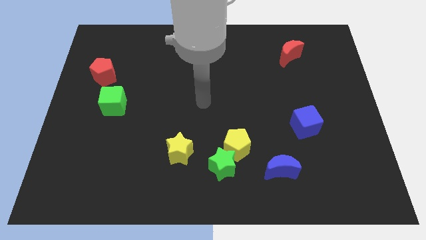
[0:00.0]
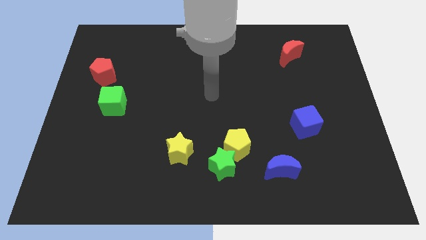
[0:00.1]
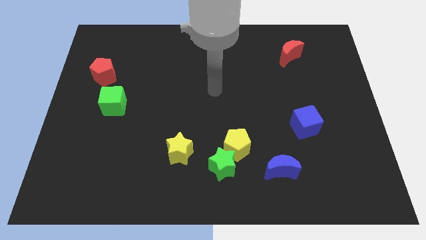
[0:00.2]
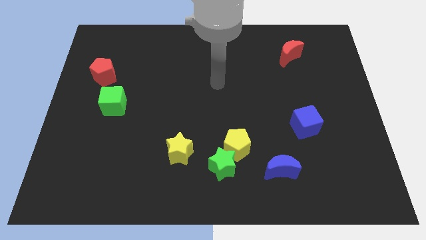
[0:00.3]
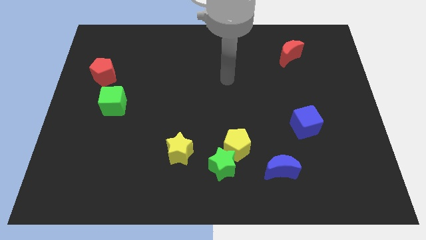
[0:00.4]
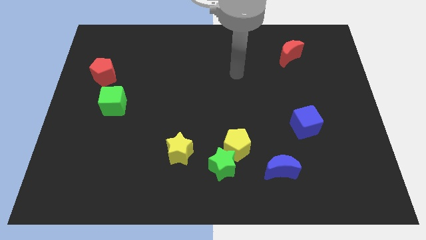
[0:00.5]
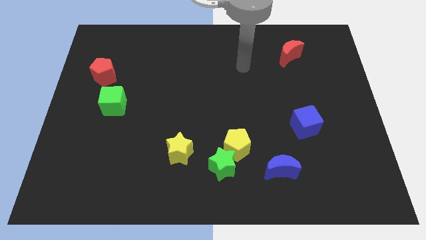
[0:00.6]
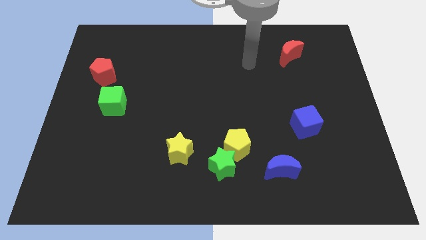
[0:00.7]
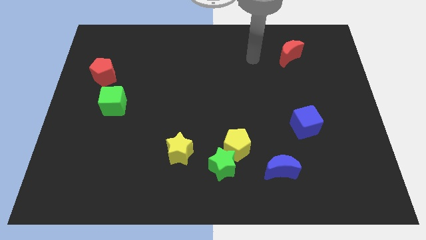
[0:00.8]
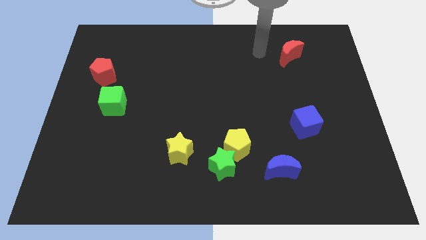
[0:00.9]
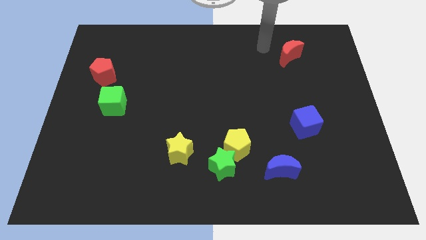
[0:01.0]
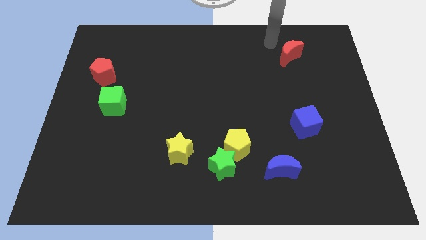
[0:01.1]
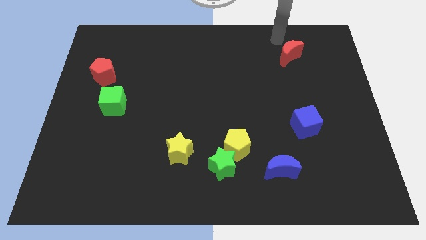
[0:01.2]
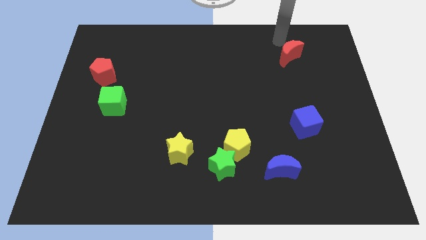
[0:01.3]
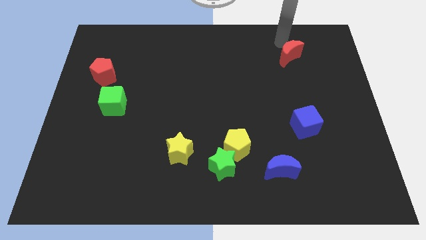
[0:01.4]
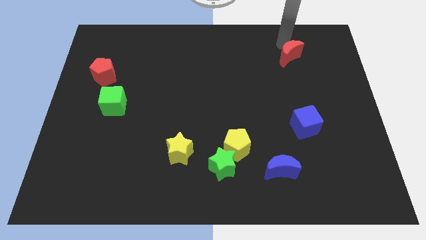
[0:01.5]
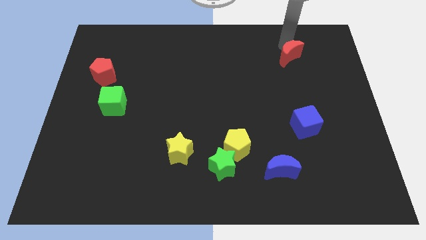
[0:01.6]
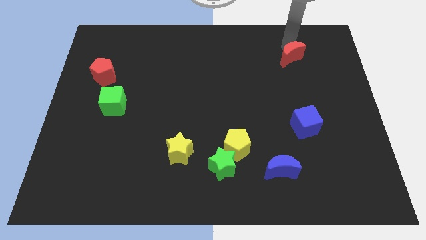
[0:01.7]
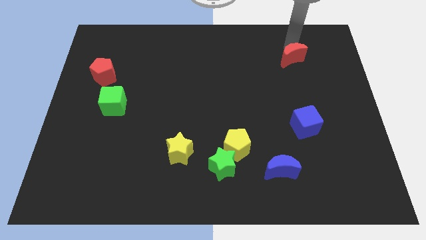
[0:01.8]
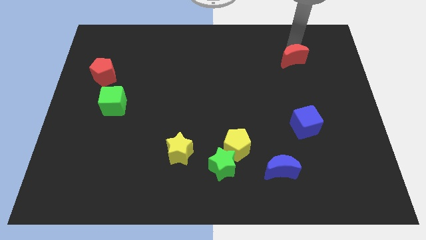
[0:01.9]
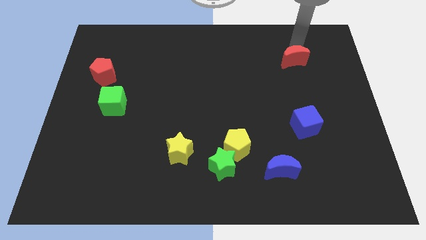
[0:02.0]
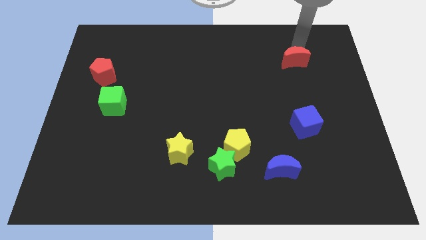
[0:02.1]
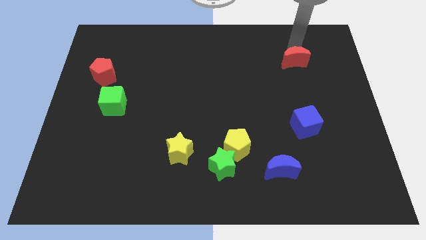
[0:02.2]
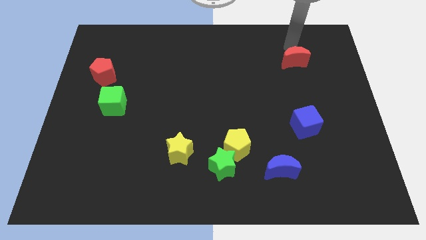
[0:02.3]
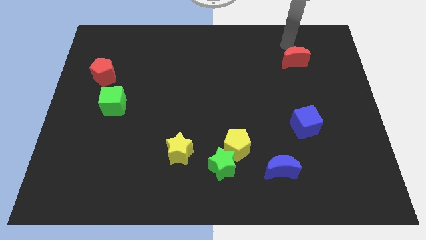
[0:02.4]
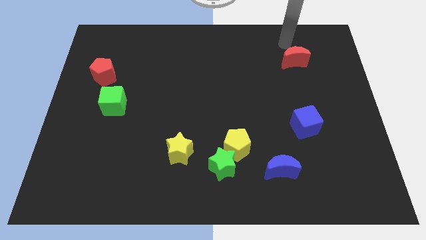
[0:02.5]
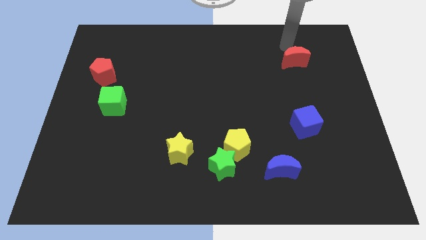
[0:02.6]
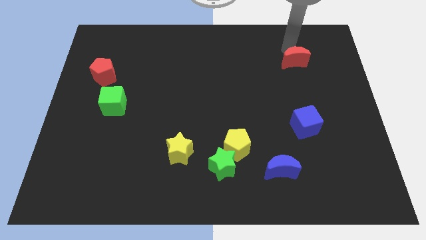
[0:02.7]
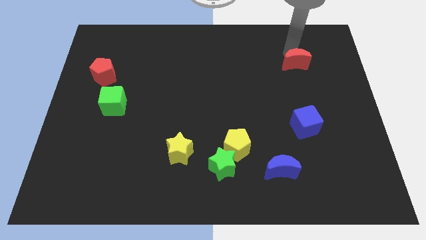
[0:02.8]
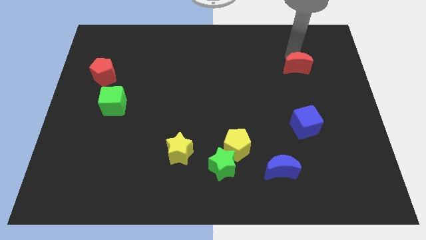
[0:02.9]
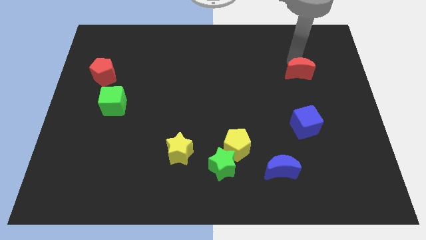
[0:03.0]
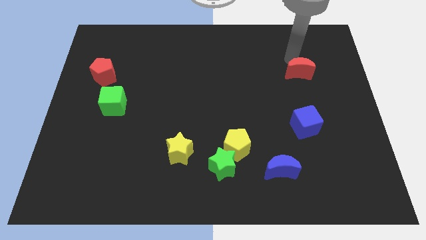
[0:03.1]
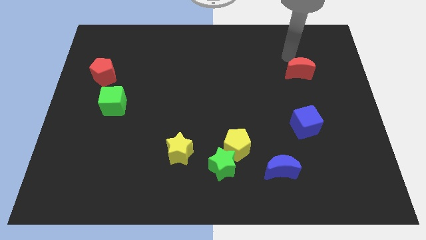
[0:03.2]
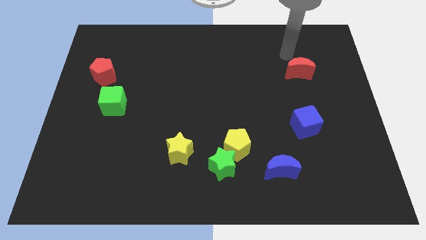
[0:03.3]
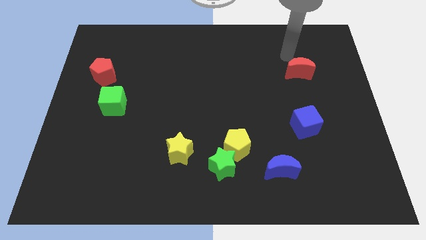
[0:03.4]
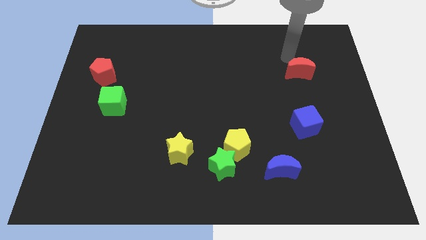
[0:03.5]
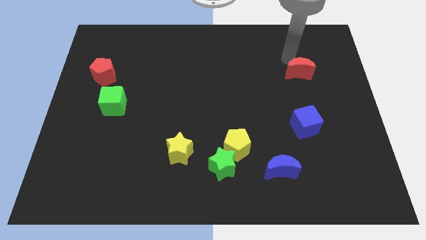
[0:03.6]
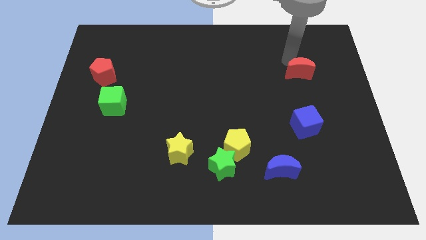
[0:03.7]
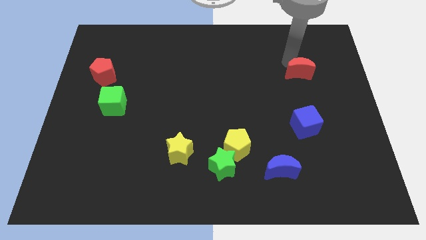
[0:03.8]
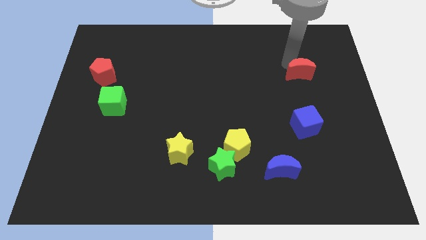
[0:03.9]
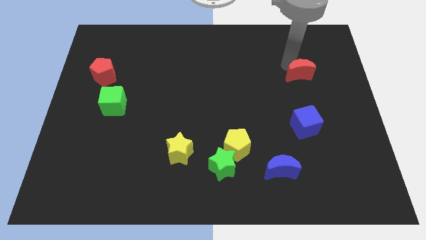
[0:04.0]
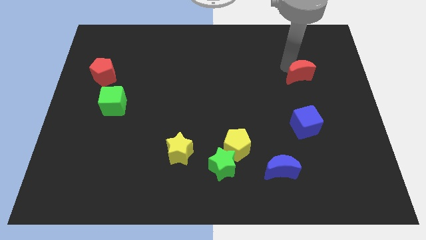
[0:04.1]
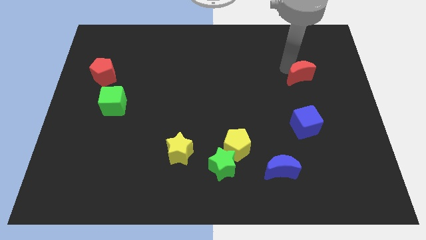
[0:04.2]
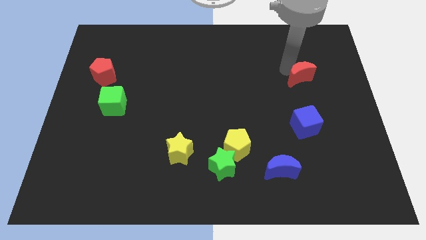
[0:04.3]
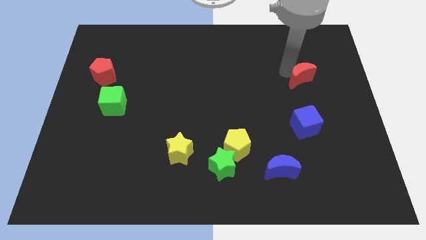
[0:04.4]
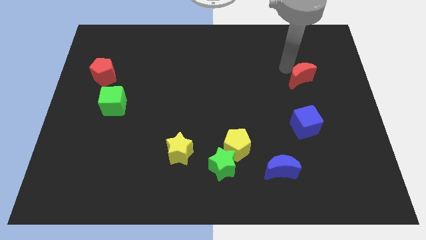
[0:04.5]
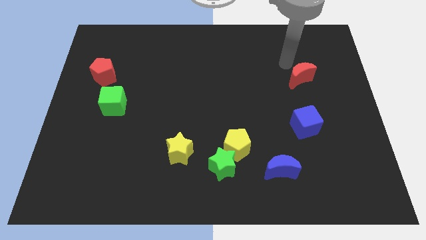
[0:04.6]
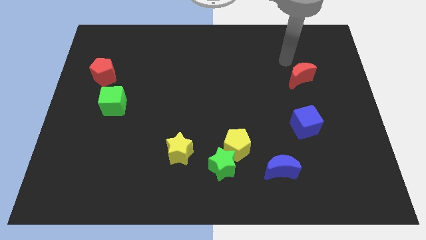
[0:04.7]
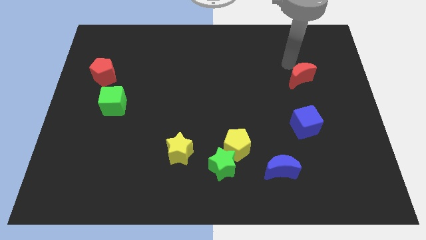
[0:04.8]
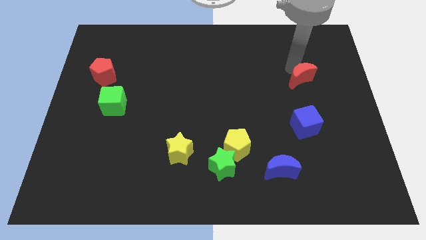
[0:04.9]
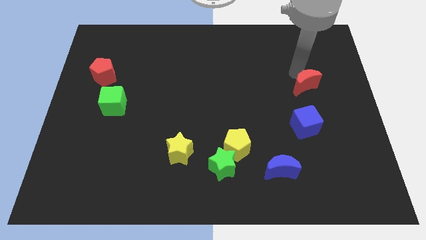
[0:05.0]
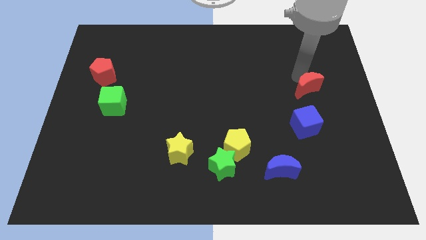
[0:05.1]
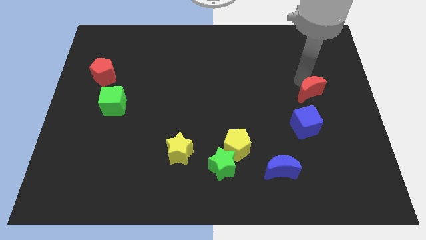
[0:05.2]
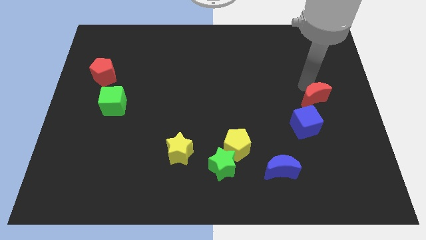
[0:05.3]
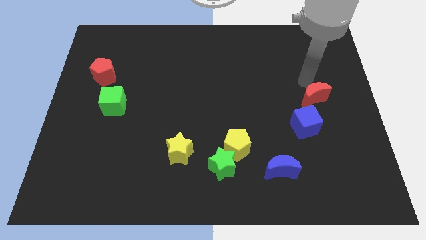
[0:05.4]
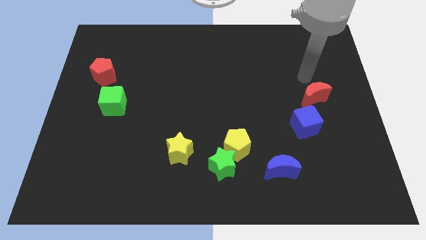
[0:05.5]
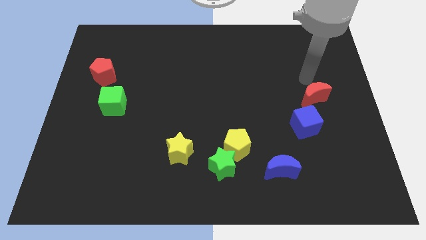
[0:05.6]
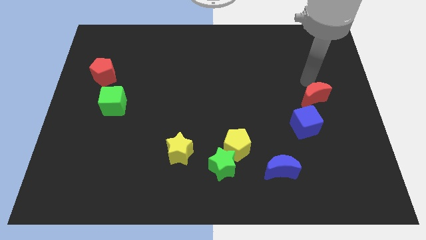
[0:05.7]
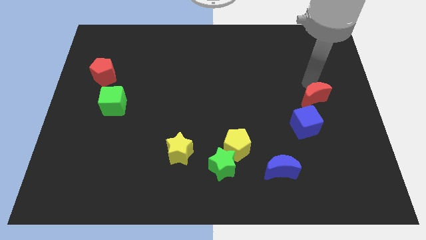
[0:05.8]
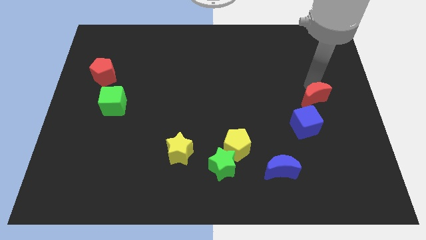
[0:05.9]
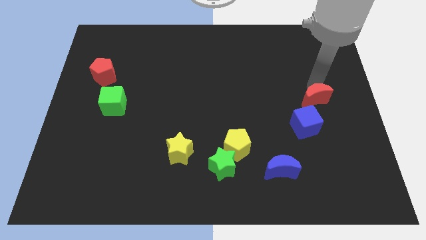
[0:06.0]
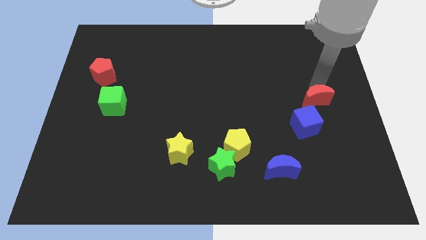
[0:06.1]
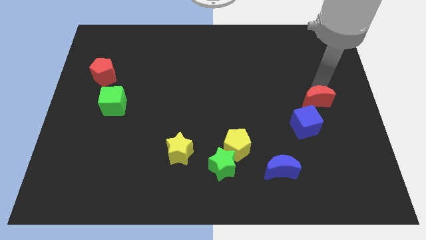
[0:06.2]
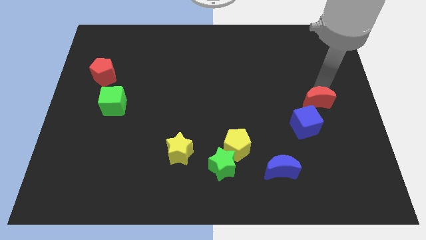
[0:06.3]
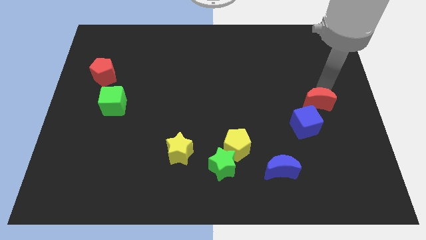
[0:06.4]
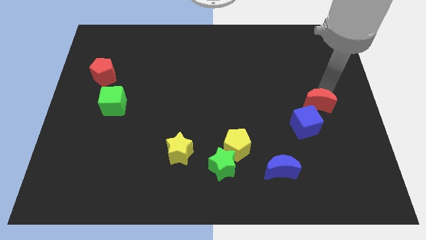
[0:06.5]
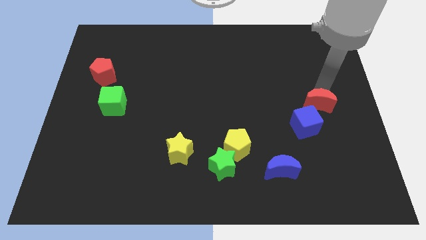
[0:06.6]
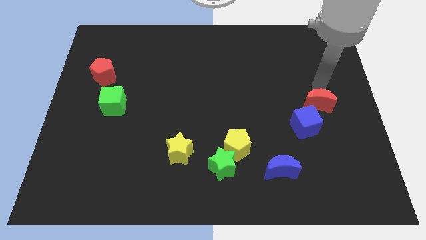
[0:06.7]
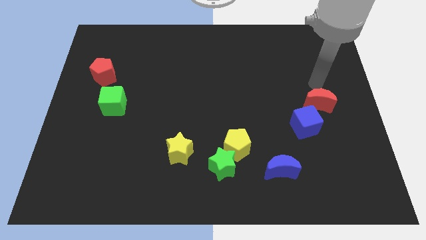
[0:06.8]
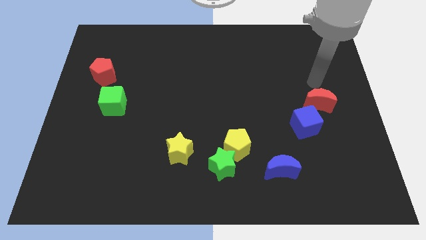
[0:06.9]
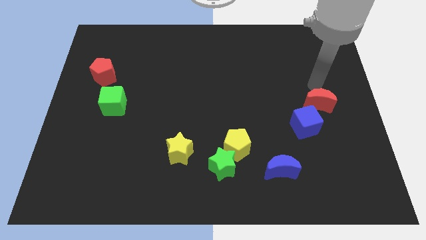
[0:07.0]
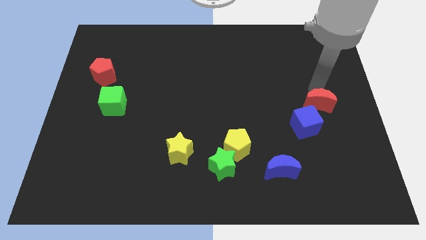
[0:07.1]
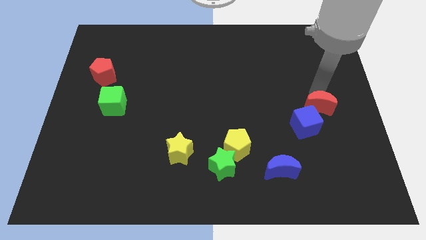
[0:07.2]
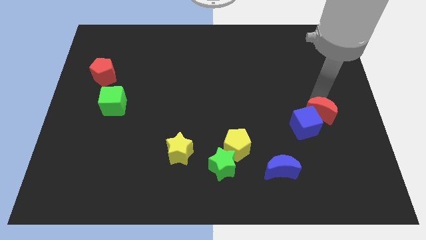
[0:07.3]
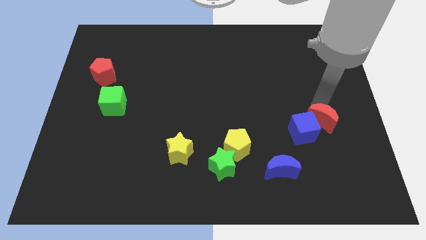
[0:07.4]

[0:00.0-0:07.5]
move the red moon downwards

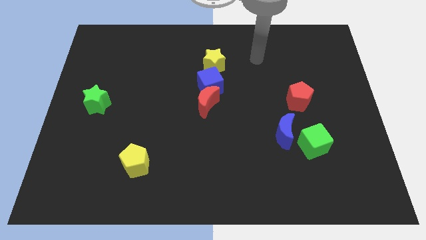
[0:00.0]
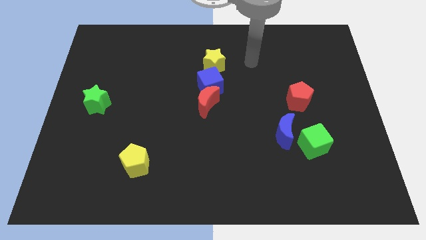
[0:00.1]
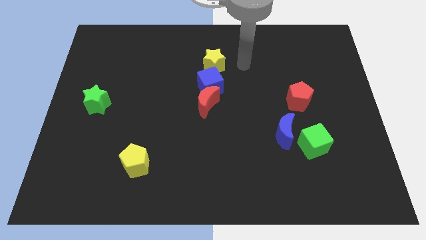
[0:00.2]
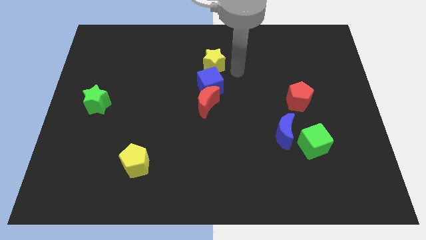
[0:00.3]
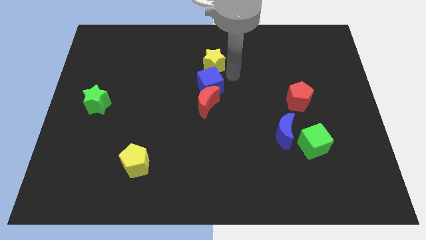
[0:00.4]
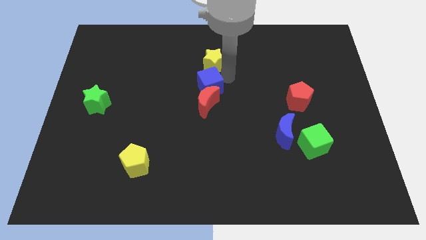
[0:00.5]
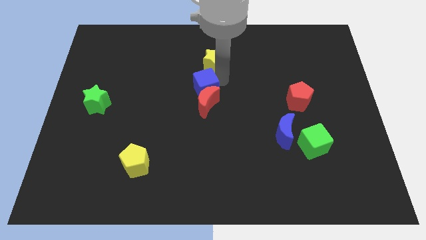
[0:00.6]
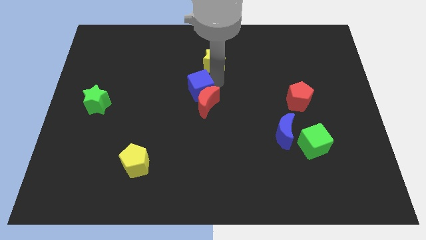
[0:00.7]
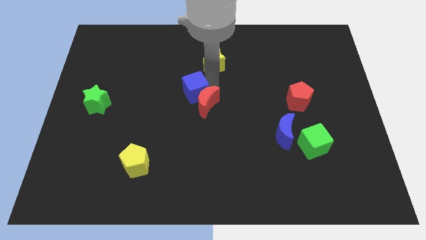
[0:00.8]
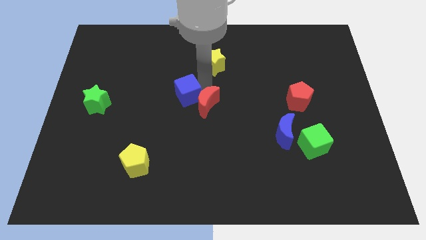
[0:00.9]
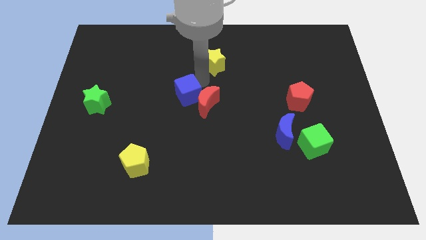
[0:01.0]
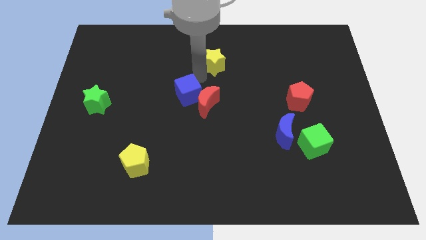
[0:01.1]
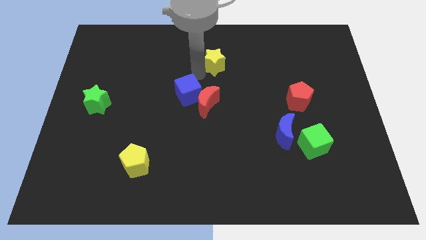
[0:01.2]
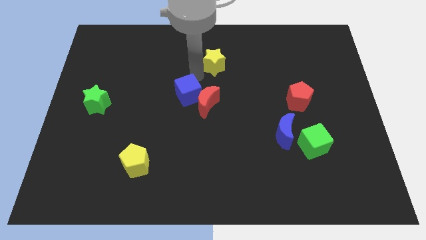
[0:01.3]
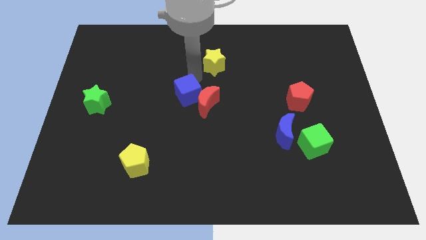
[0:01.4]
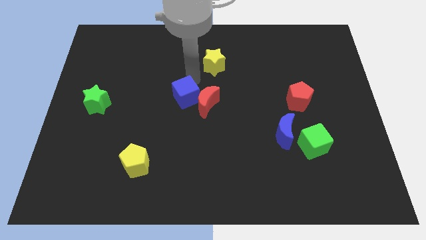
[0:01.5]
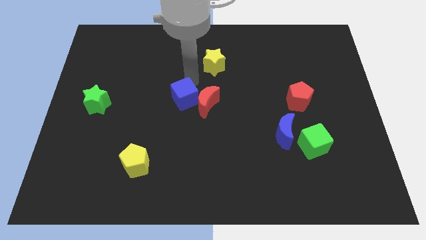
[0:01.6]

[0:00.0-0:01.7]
slide the blue cube somewhat diagonally downwards and left
